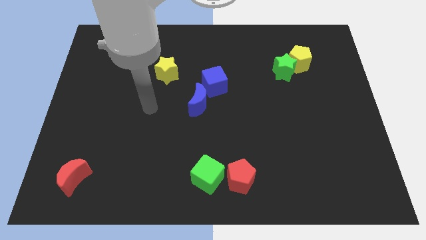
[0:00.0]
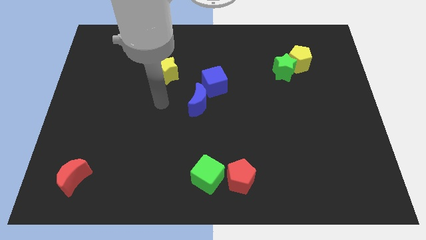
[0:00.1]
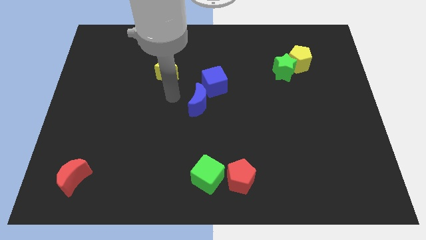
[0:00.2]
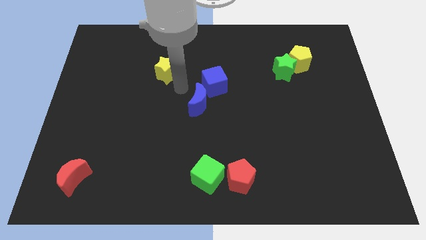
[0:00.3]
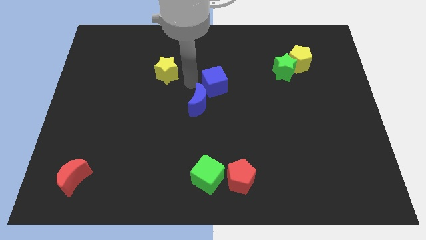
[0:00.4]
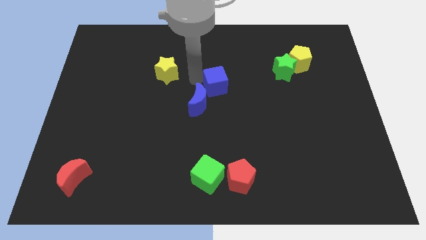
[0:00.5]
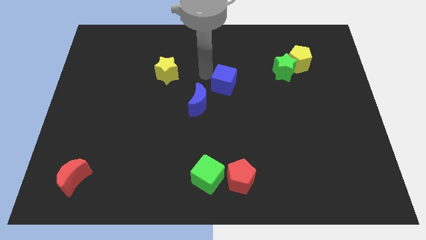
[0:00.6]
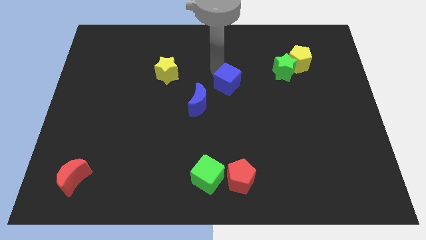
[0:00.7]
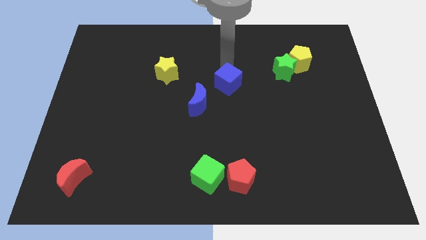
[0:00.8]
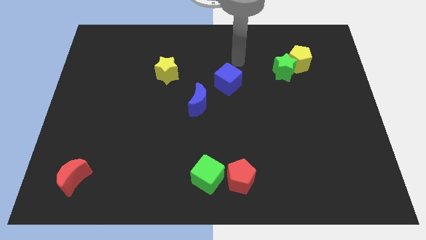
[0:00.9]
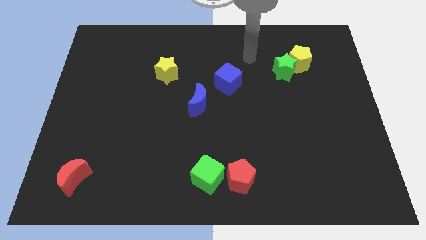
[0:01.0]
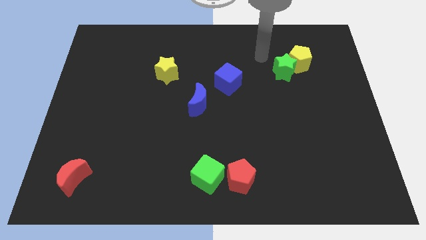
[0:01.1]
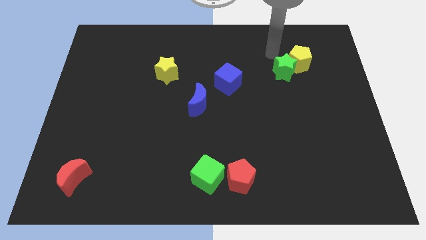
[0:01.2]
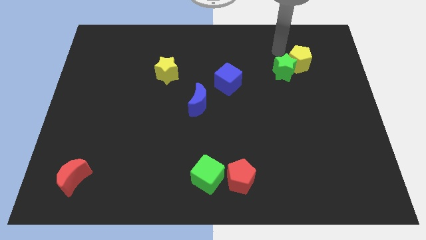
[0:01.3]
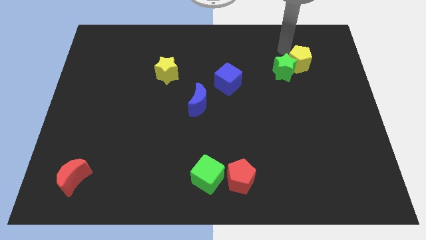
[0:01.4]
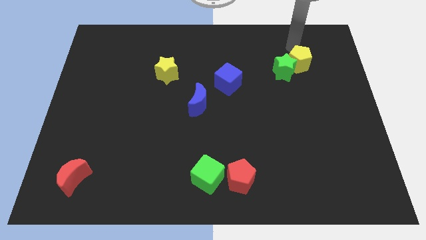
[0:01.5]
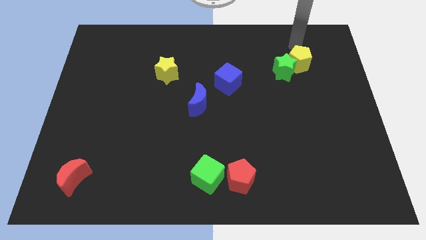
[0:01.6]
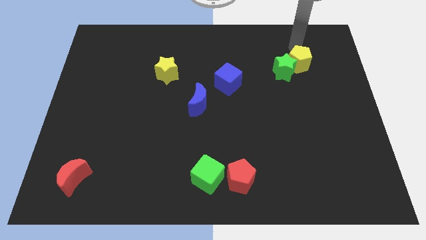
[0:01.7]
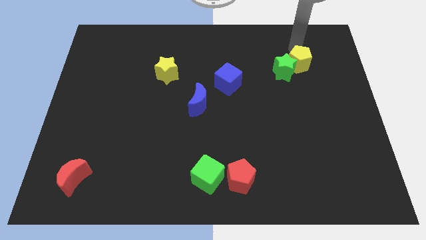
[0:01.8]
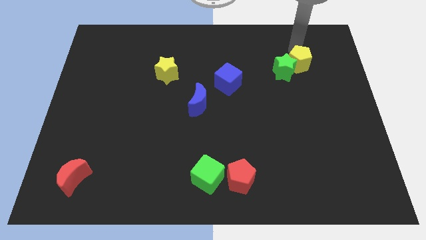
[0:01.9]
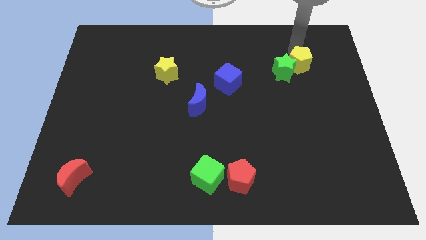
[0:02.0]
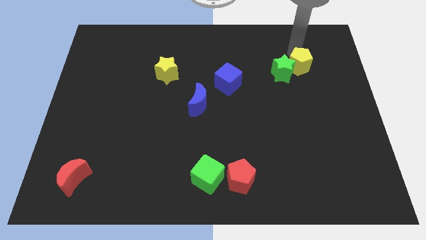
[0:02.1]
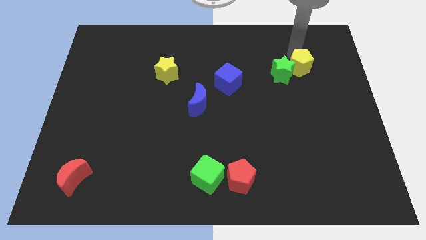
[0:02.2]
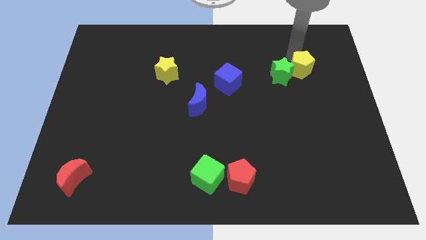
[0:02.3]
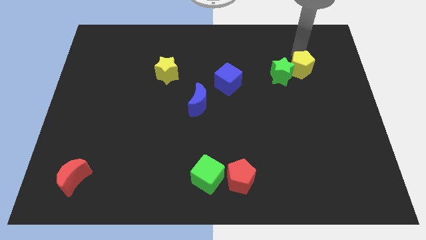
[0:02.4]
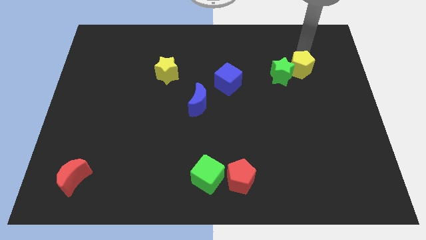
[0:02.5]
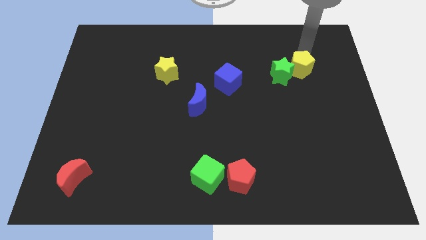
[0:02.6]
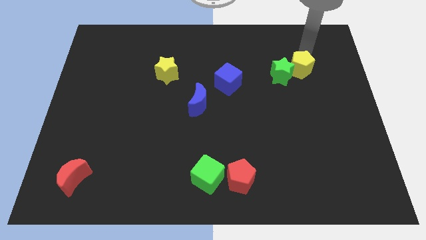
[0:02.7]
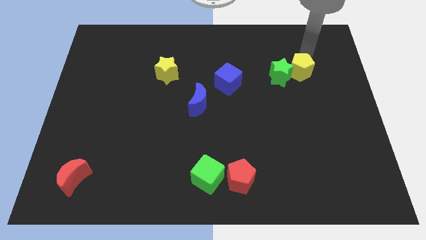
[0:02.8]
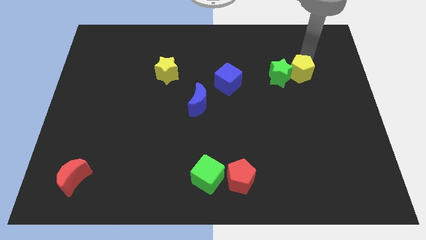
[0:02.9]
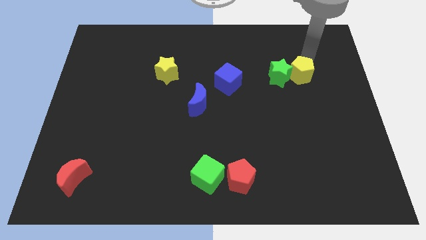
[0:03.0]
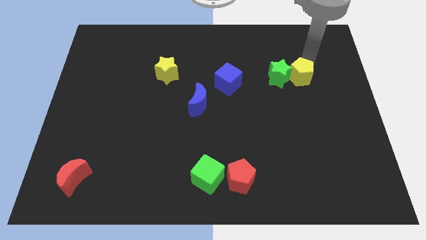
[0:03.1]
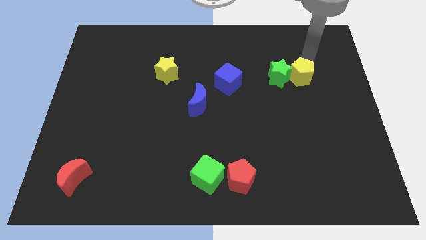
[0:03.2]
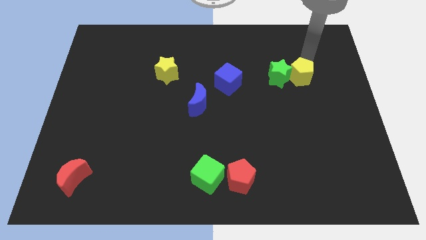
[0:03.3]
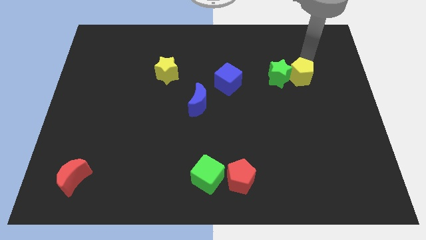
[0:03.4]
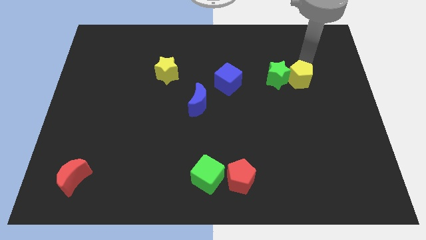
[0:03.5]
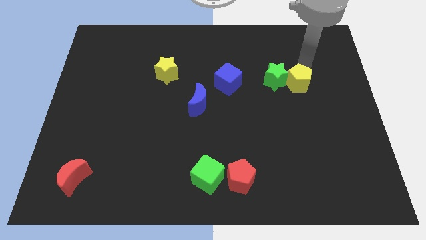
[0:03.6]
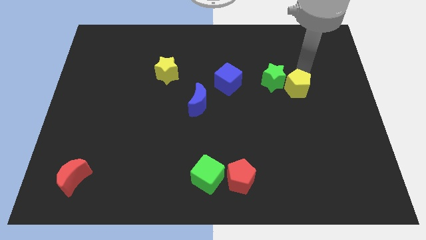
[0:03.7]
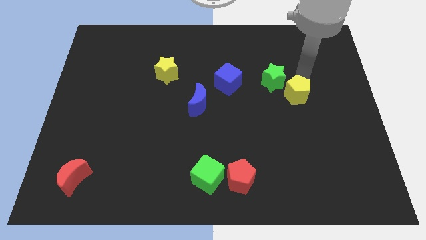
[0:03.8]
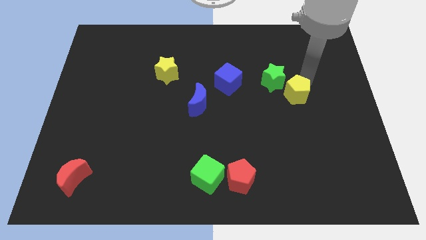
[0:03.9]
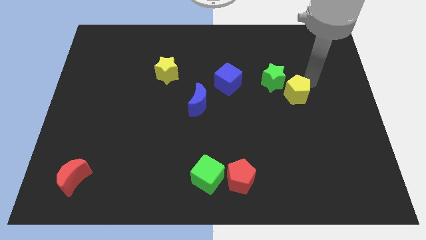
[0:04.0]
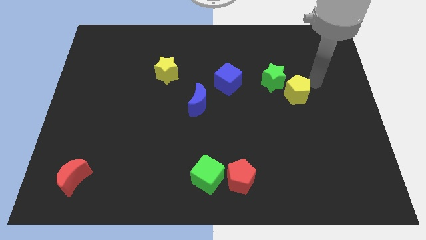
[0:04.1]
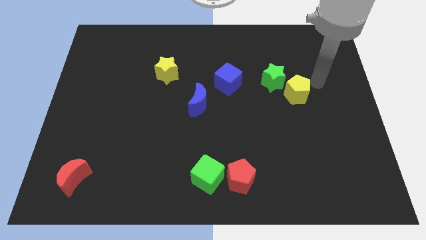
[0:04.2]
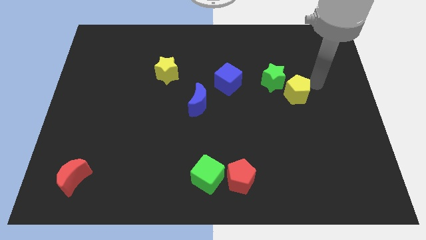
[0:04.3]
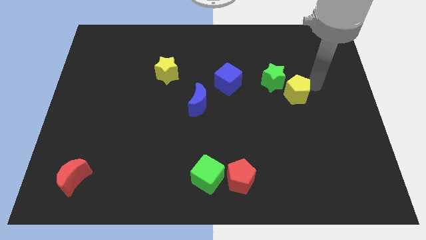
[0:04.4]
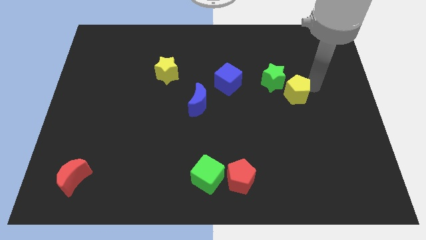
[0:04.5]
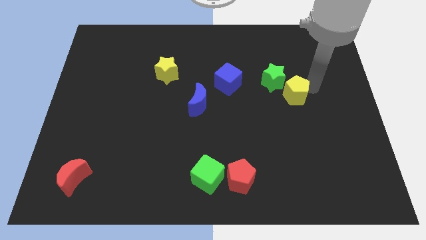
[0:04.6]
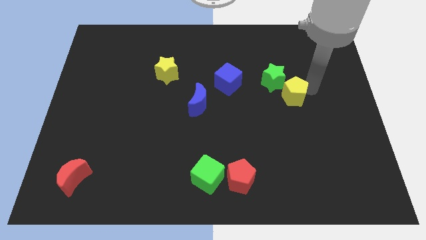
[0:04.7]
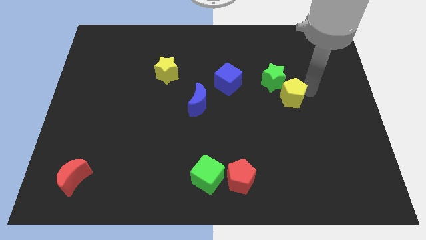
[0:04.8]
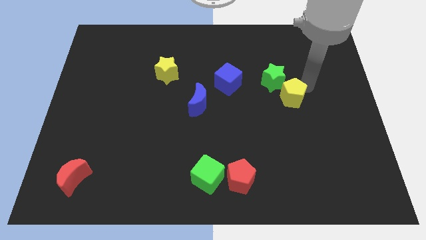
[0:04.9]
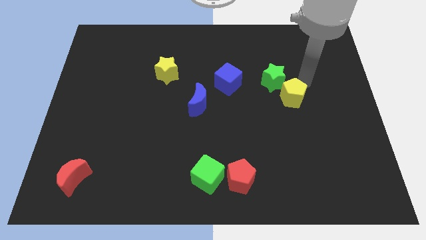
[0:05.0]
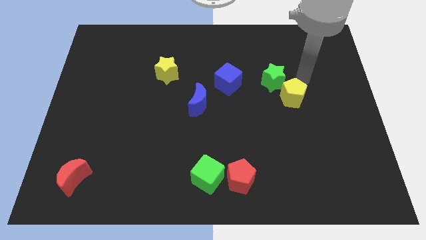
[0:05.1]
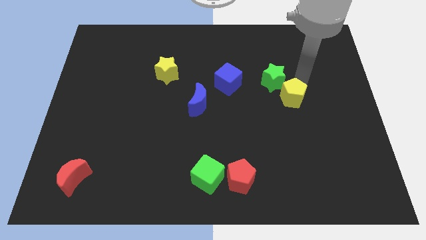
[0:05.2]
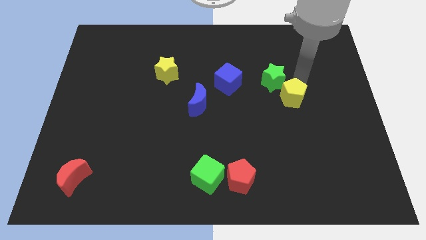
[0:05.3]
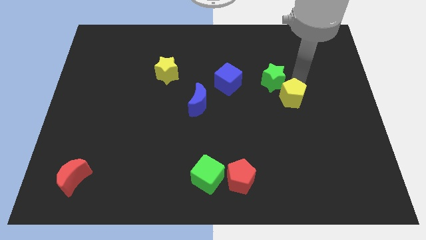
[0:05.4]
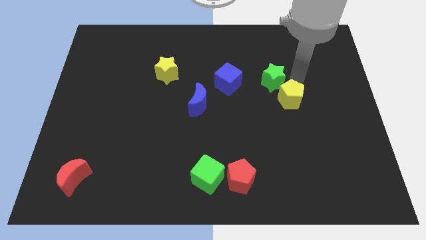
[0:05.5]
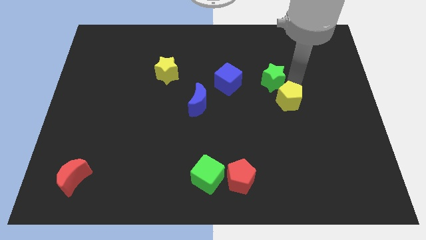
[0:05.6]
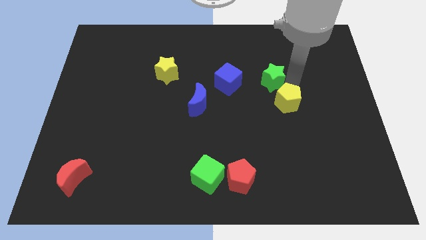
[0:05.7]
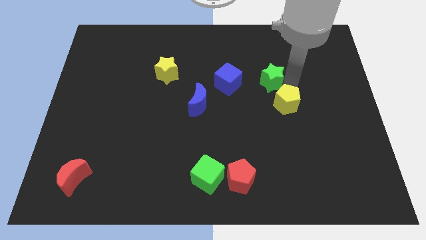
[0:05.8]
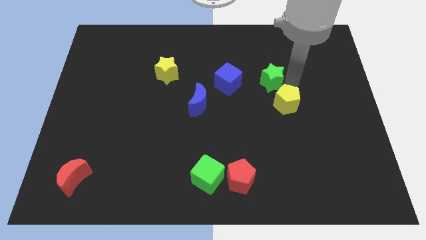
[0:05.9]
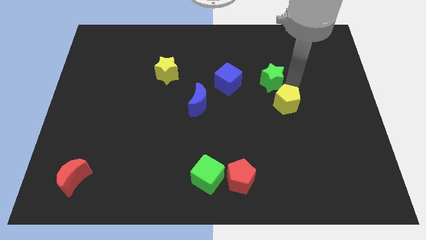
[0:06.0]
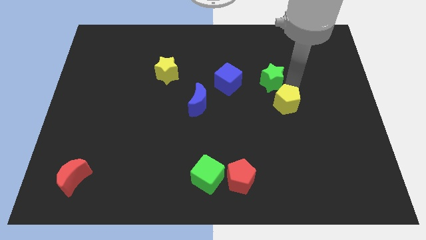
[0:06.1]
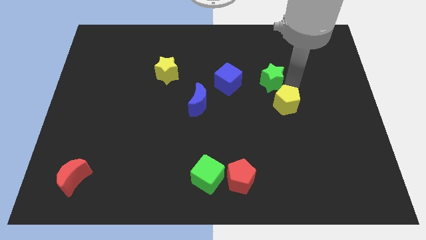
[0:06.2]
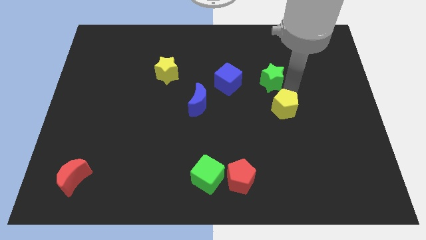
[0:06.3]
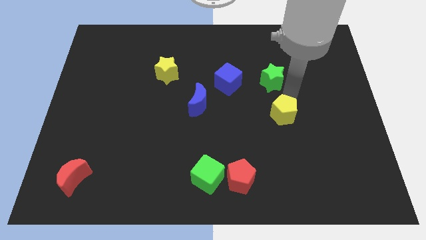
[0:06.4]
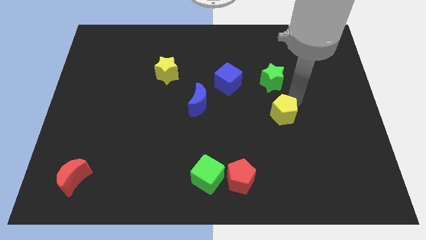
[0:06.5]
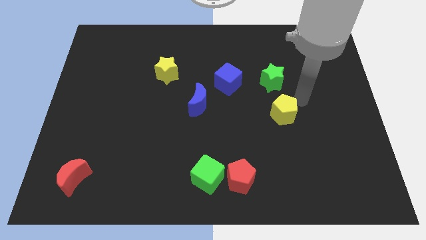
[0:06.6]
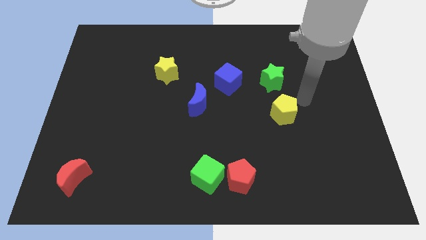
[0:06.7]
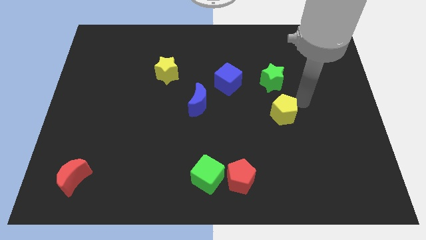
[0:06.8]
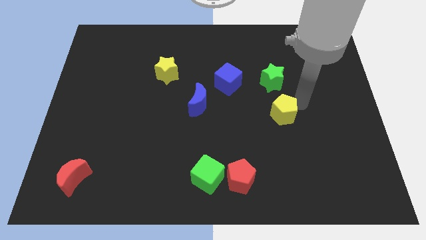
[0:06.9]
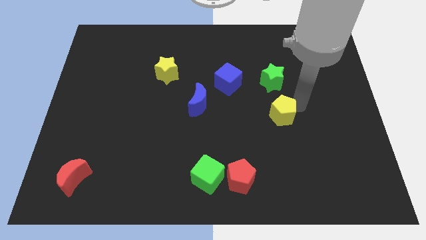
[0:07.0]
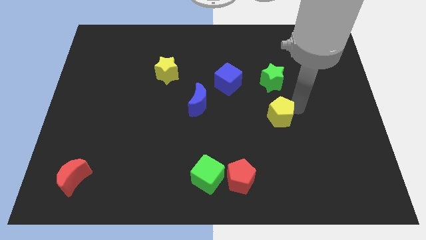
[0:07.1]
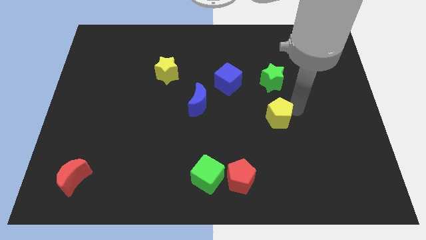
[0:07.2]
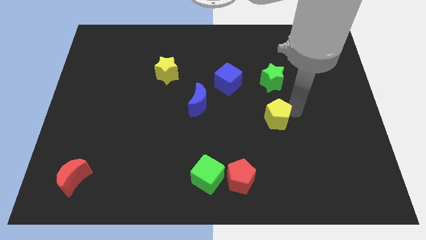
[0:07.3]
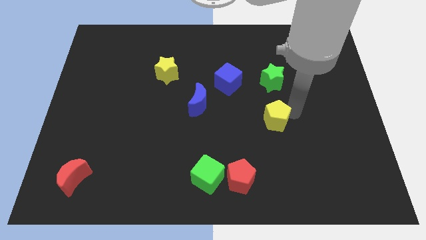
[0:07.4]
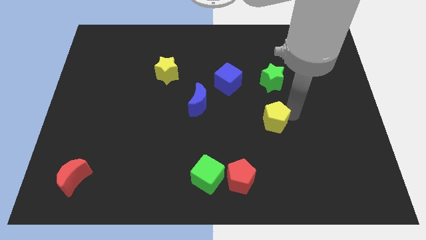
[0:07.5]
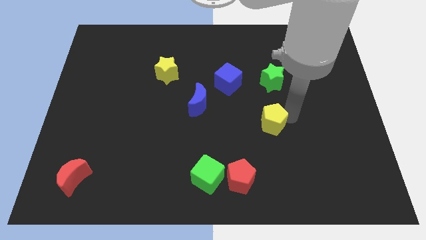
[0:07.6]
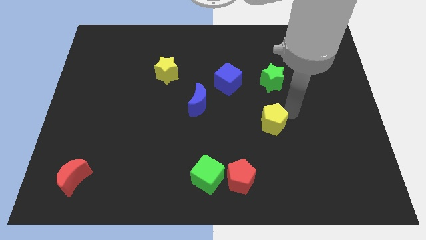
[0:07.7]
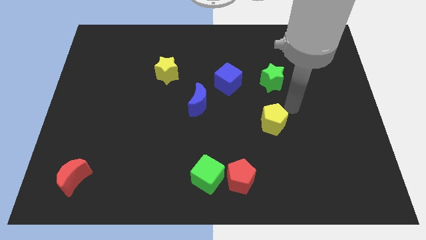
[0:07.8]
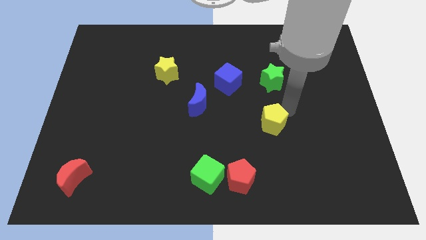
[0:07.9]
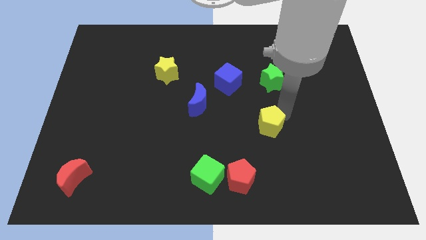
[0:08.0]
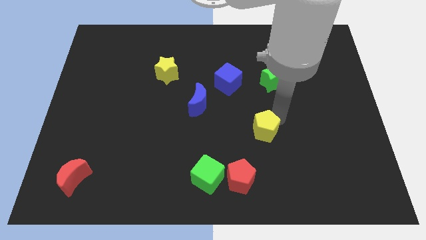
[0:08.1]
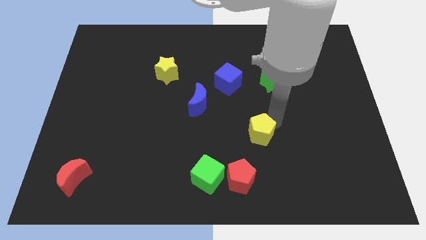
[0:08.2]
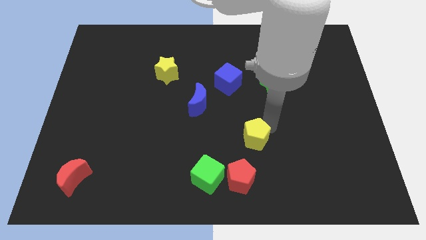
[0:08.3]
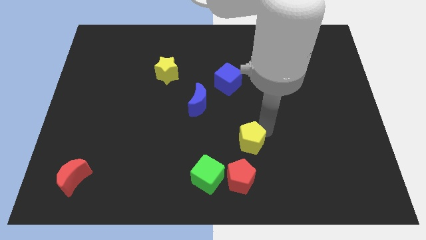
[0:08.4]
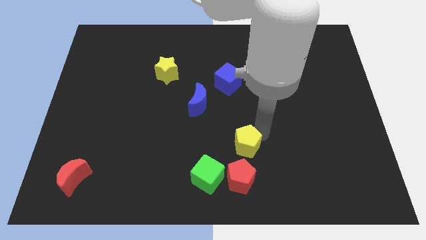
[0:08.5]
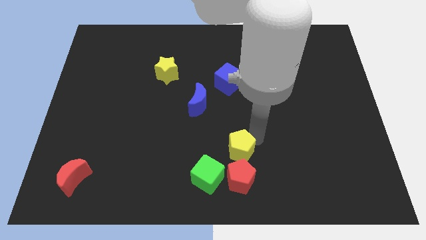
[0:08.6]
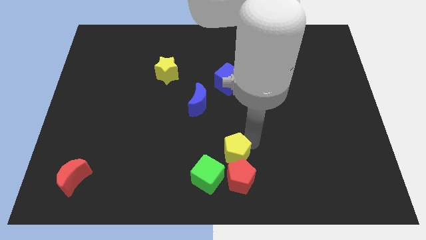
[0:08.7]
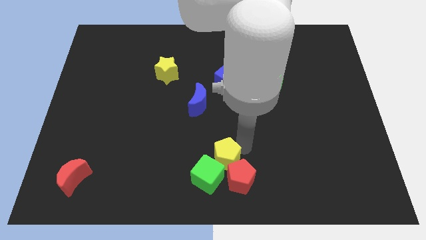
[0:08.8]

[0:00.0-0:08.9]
push the yellow pentagon next to the green cube
